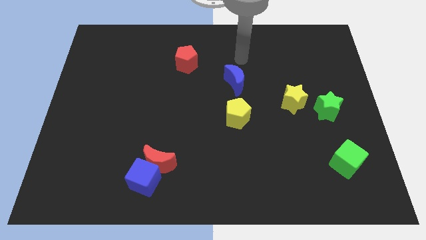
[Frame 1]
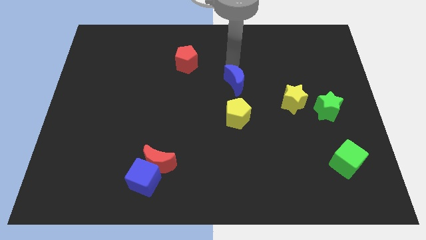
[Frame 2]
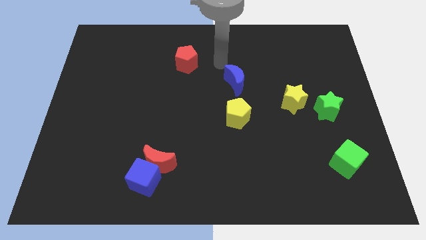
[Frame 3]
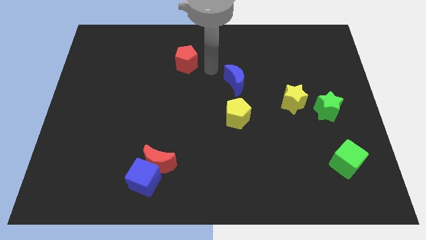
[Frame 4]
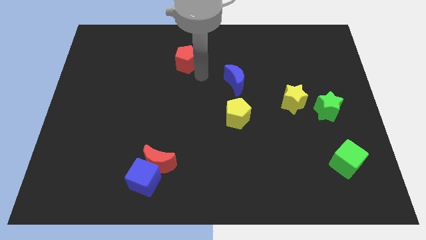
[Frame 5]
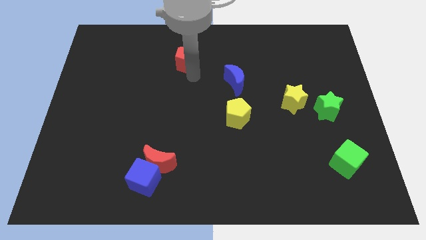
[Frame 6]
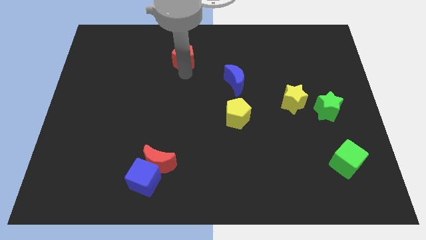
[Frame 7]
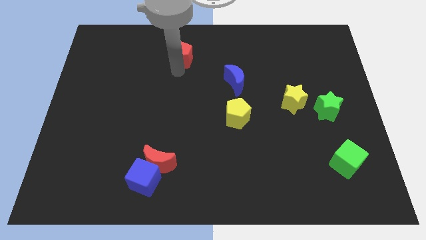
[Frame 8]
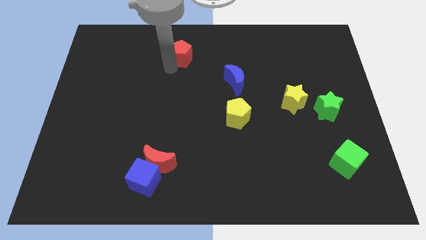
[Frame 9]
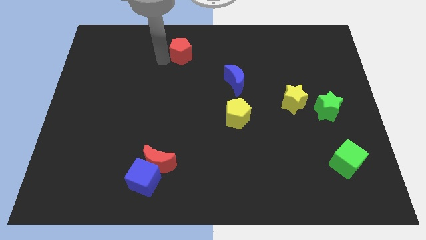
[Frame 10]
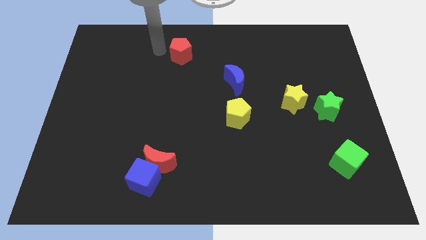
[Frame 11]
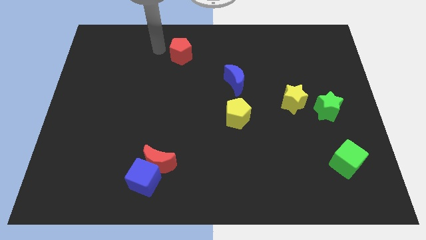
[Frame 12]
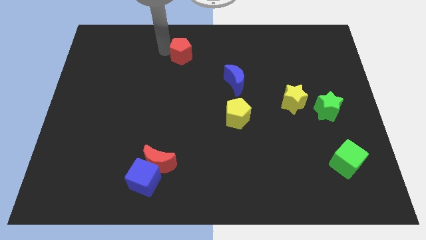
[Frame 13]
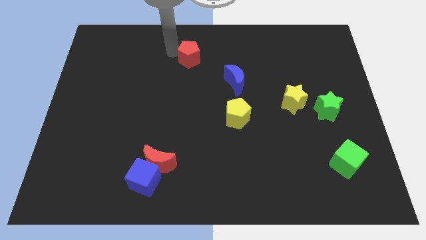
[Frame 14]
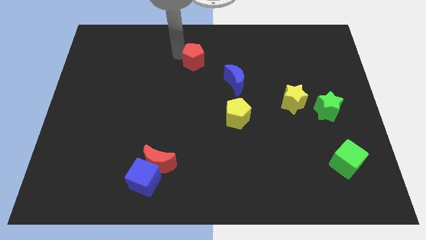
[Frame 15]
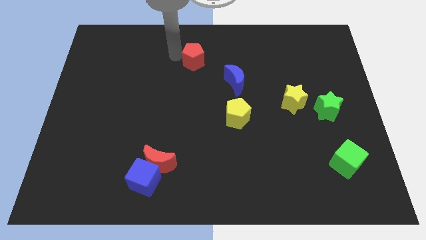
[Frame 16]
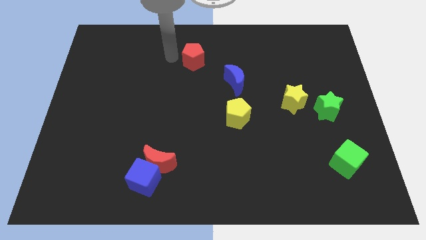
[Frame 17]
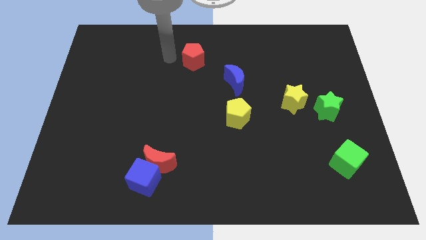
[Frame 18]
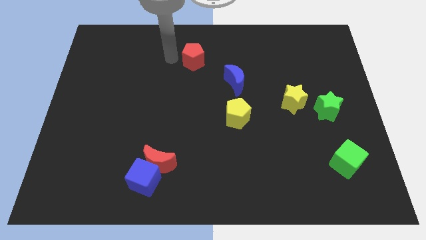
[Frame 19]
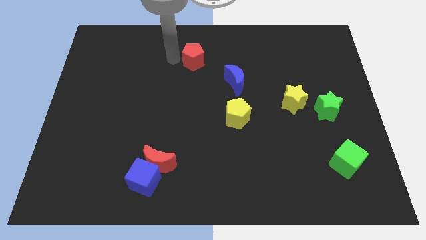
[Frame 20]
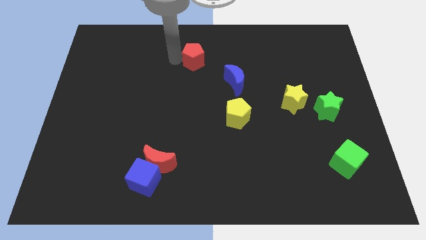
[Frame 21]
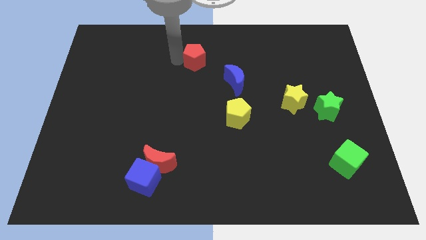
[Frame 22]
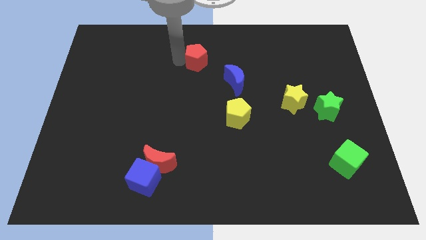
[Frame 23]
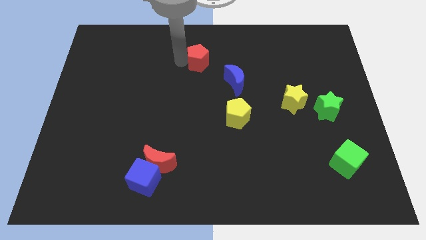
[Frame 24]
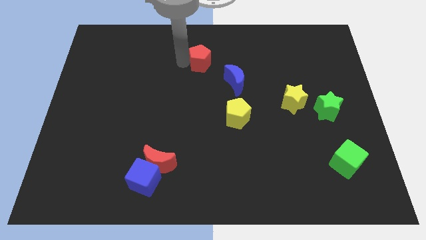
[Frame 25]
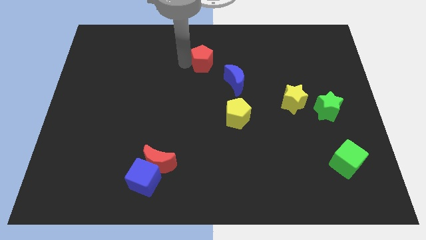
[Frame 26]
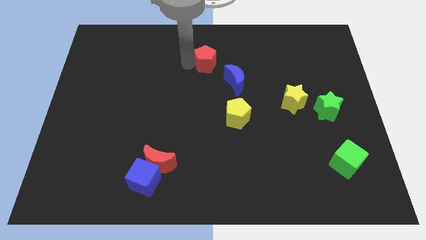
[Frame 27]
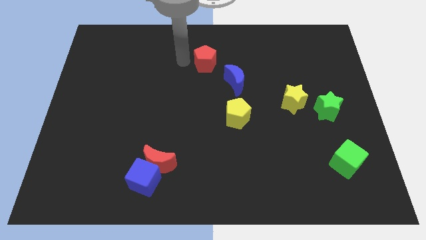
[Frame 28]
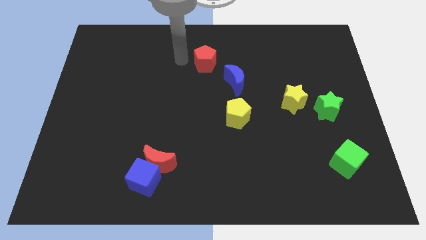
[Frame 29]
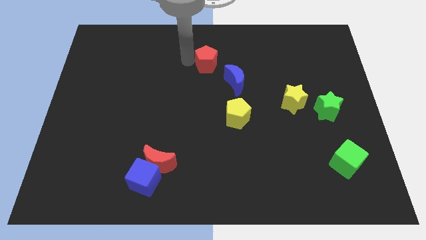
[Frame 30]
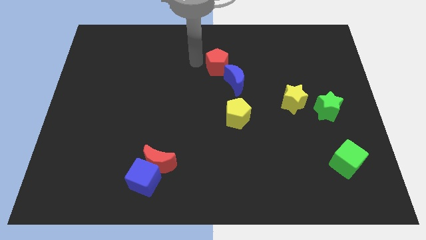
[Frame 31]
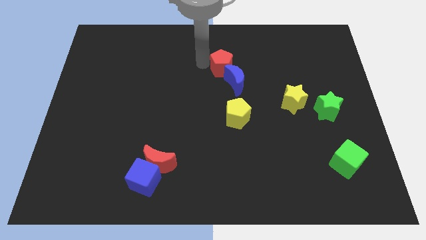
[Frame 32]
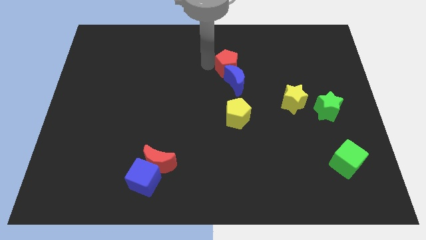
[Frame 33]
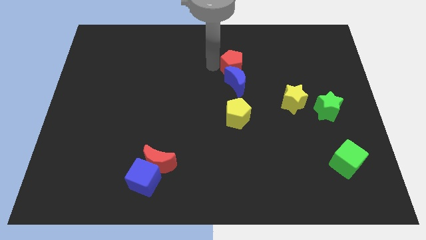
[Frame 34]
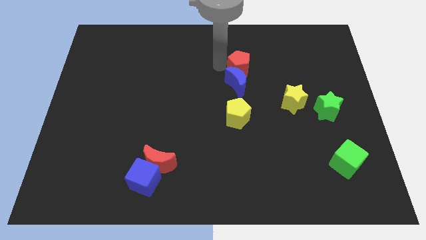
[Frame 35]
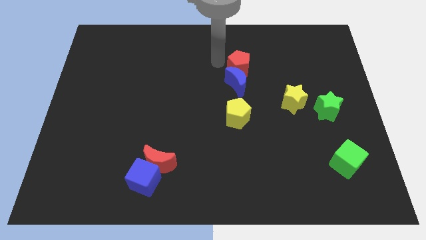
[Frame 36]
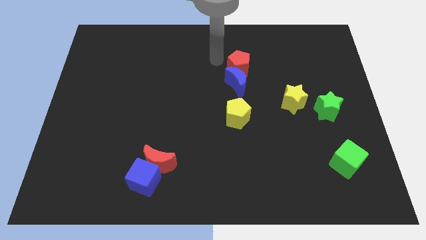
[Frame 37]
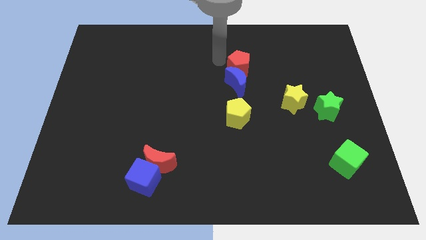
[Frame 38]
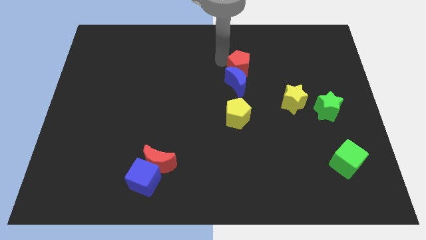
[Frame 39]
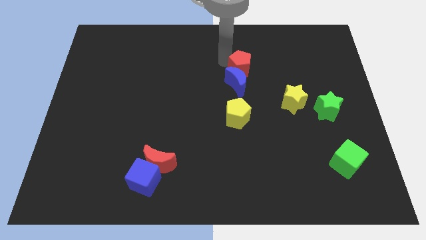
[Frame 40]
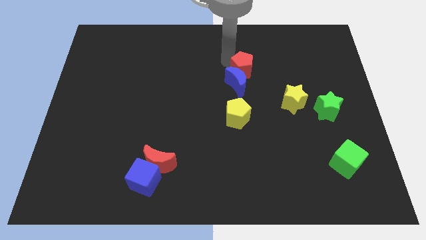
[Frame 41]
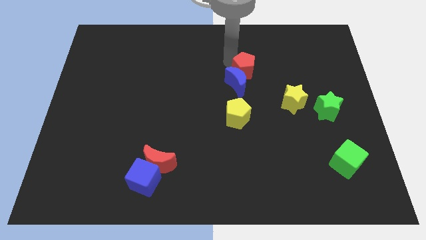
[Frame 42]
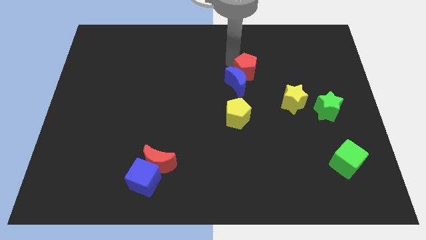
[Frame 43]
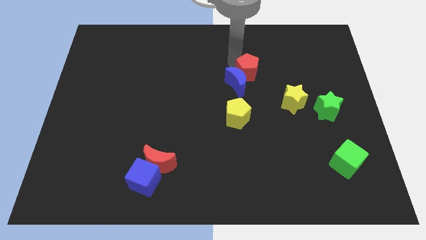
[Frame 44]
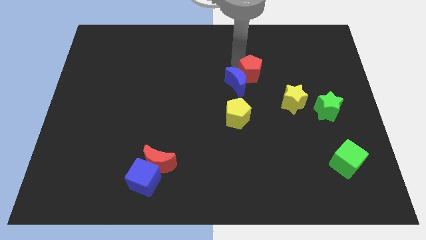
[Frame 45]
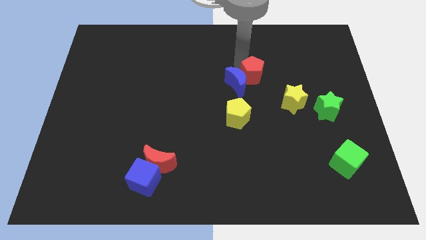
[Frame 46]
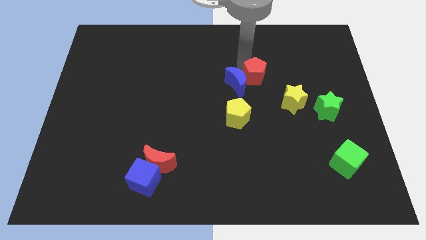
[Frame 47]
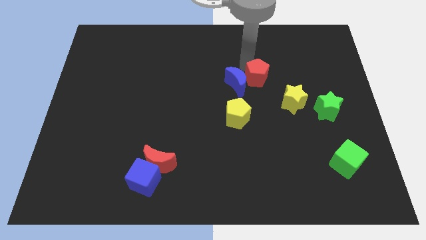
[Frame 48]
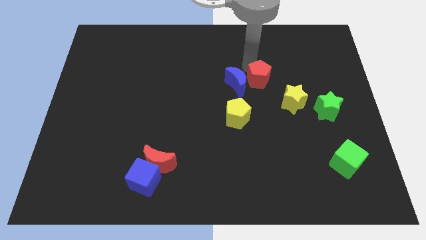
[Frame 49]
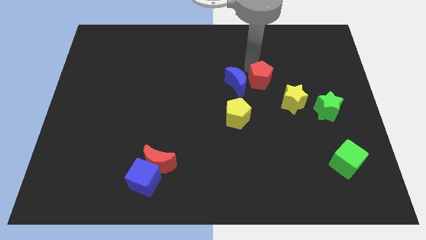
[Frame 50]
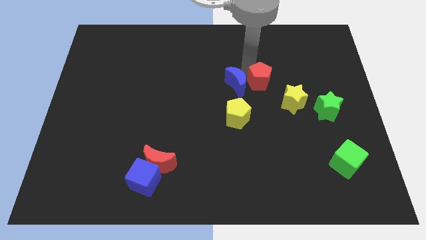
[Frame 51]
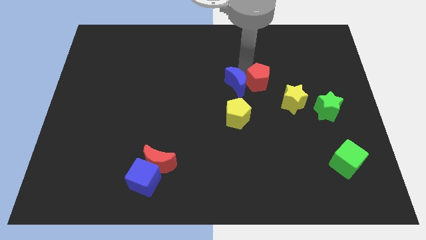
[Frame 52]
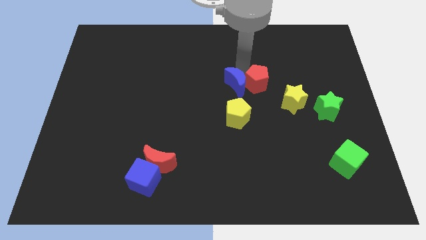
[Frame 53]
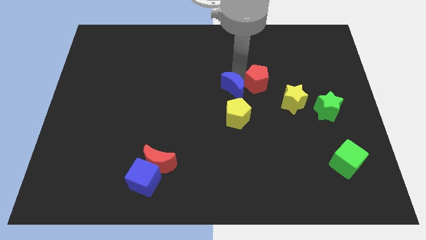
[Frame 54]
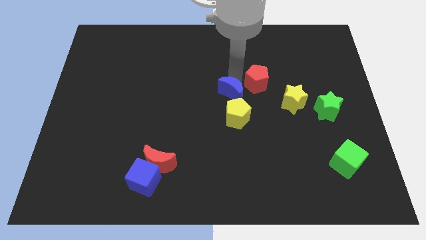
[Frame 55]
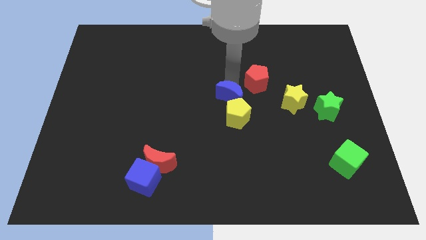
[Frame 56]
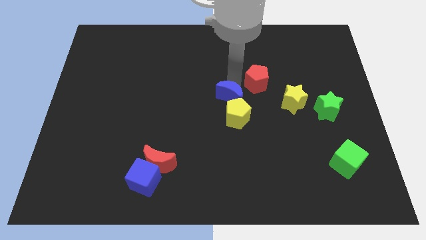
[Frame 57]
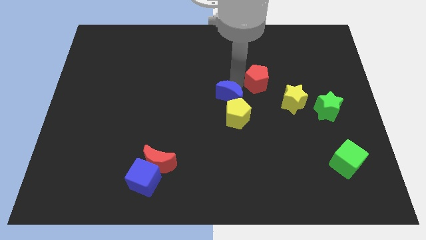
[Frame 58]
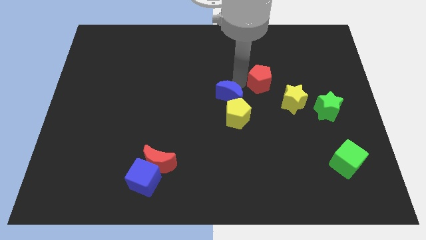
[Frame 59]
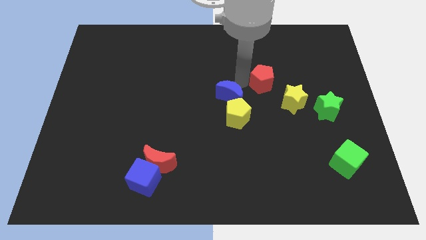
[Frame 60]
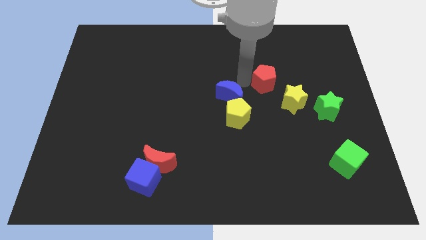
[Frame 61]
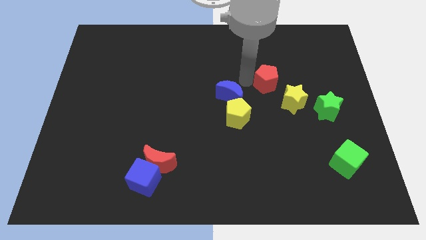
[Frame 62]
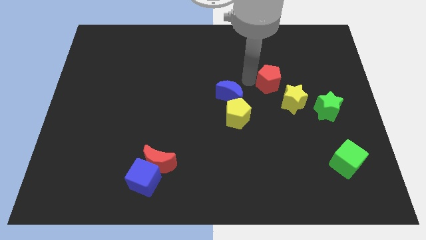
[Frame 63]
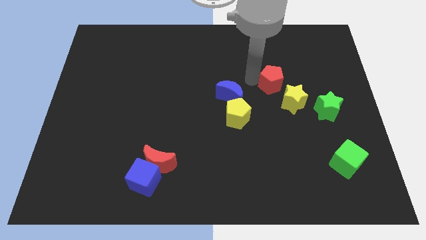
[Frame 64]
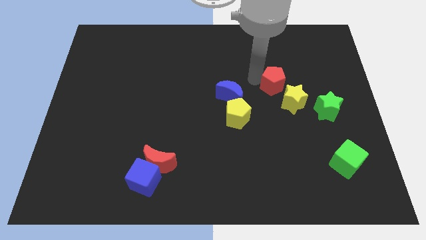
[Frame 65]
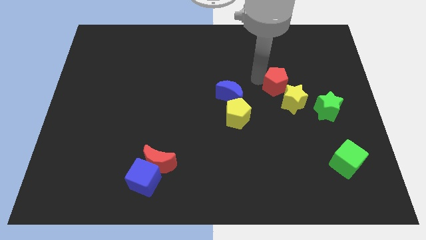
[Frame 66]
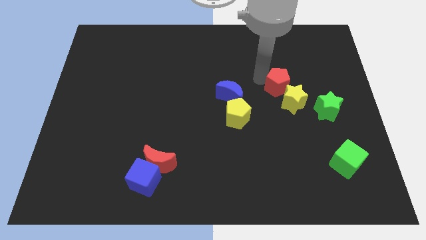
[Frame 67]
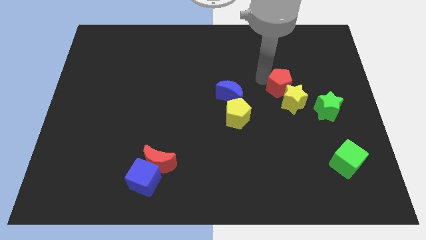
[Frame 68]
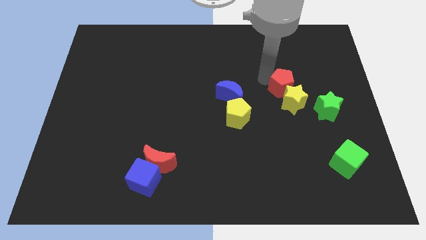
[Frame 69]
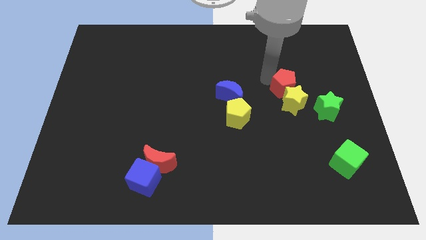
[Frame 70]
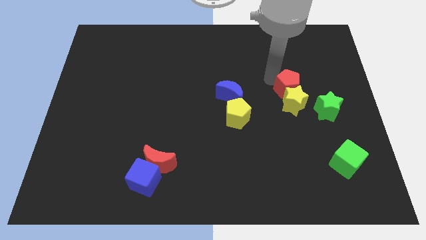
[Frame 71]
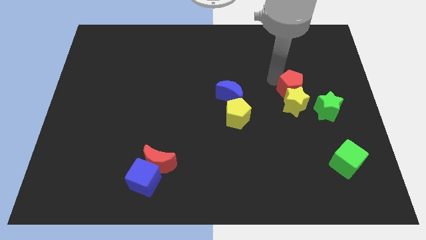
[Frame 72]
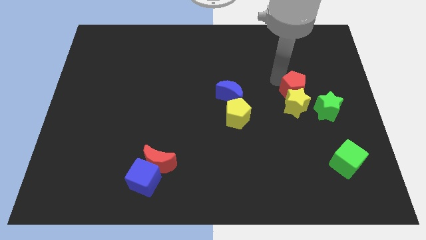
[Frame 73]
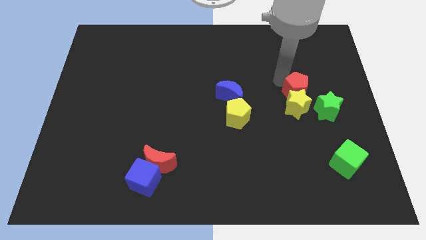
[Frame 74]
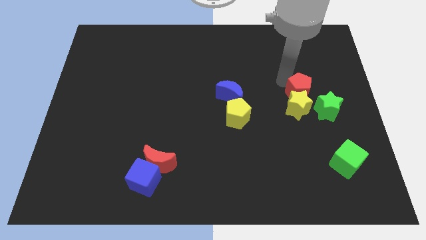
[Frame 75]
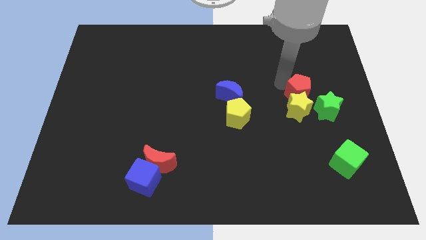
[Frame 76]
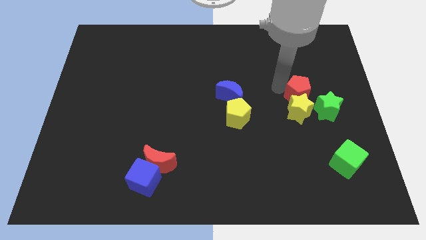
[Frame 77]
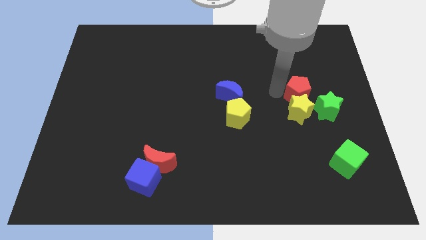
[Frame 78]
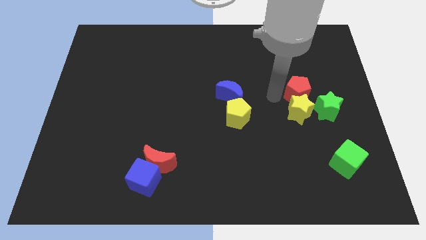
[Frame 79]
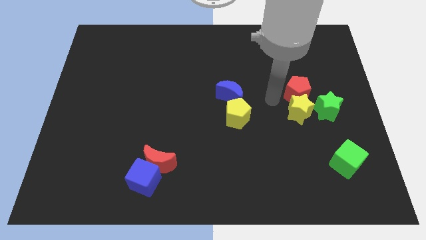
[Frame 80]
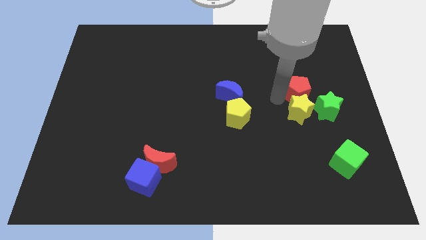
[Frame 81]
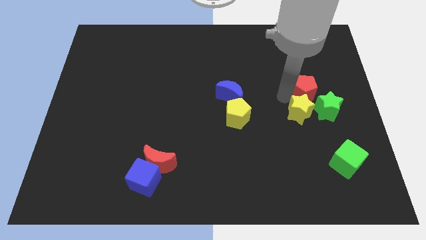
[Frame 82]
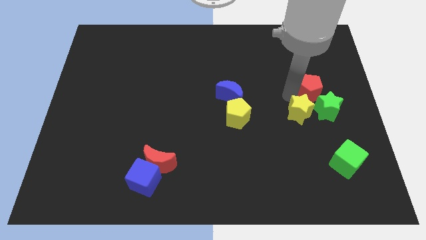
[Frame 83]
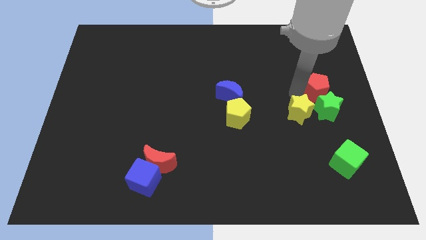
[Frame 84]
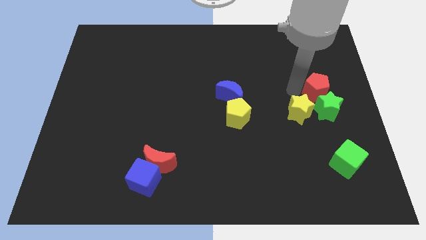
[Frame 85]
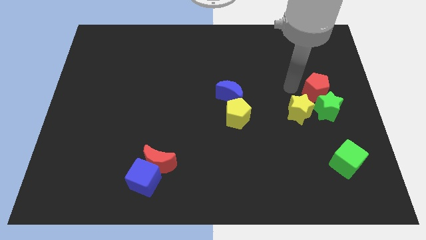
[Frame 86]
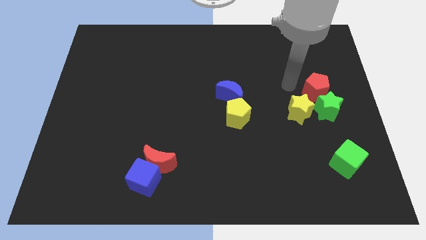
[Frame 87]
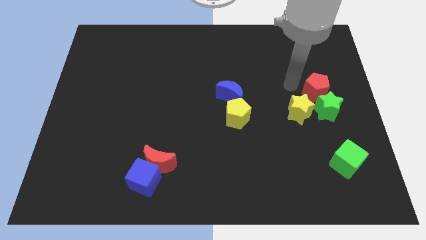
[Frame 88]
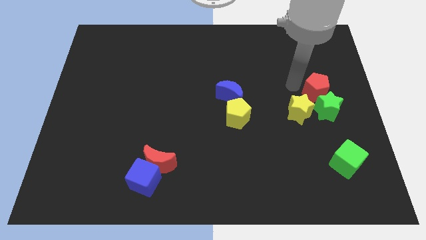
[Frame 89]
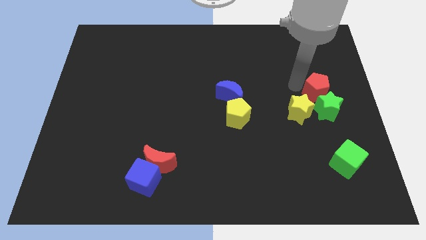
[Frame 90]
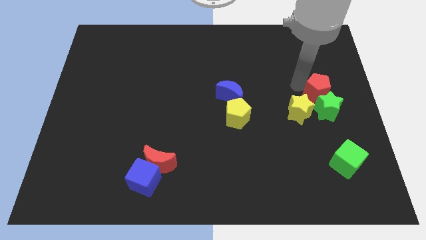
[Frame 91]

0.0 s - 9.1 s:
push the red pentagon to the right side of the board
